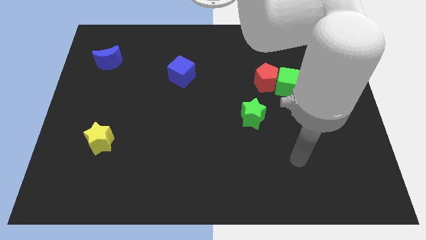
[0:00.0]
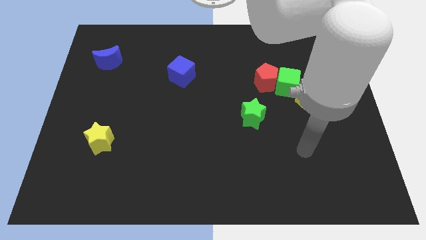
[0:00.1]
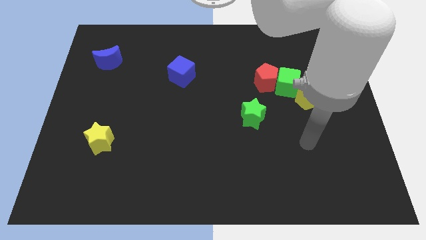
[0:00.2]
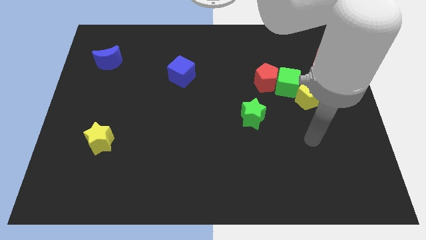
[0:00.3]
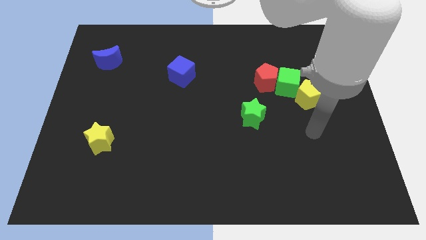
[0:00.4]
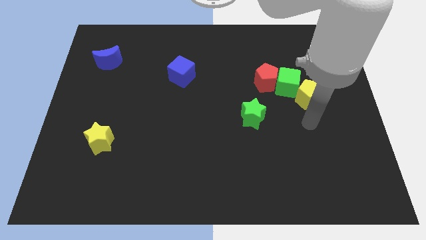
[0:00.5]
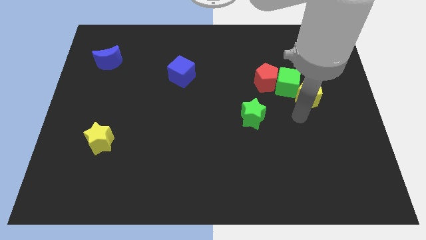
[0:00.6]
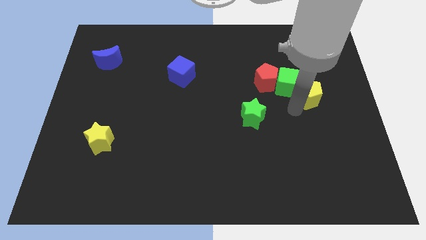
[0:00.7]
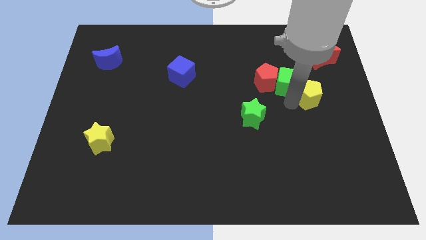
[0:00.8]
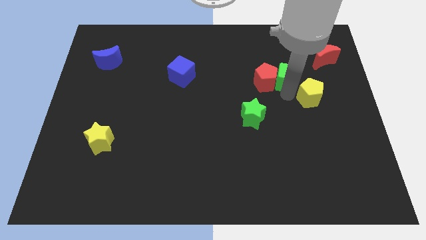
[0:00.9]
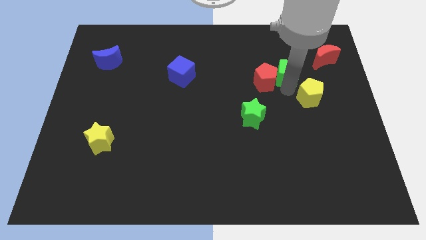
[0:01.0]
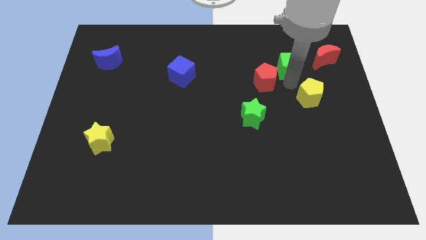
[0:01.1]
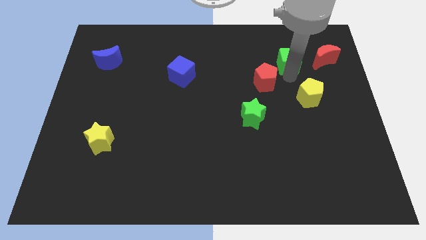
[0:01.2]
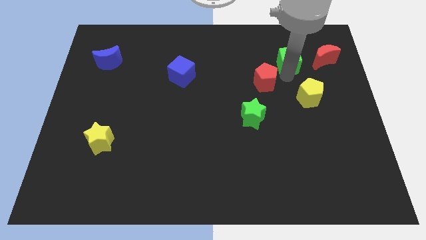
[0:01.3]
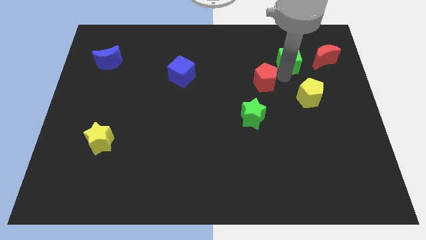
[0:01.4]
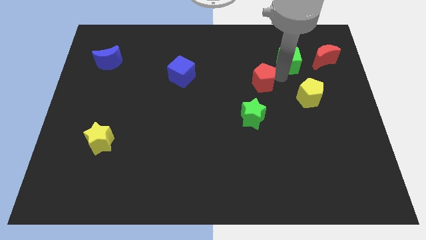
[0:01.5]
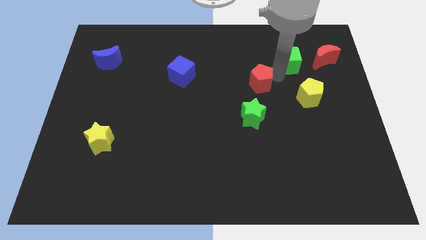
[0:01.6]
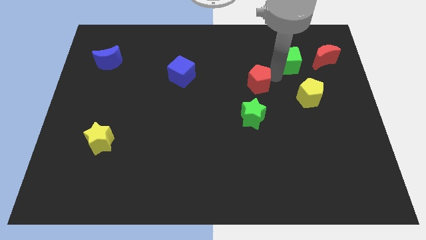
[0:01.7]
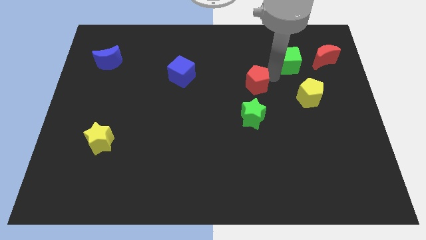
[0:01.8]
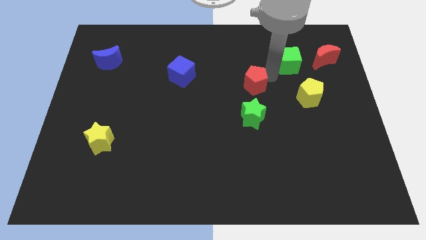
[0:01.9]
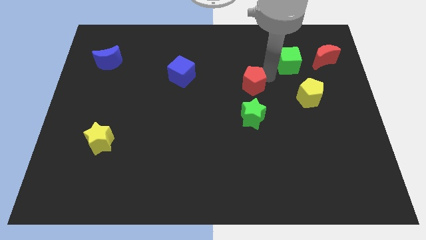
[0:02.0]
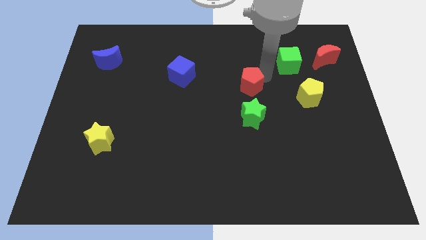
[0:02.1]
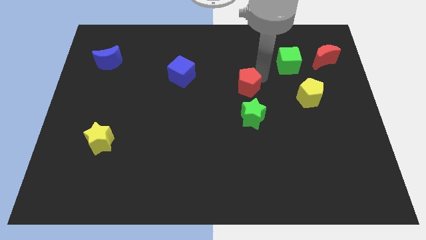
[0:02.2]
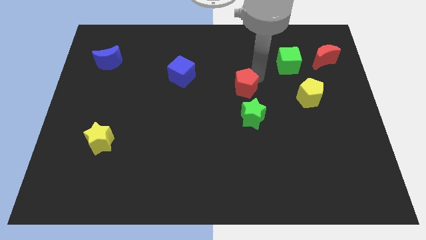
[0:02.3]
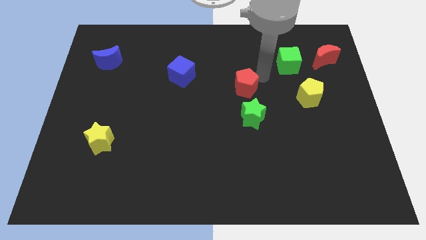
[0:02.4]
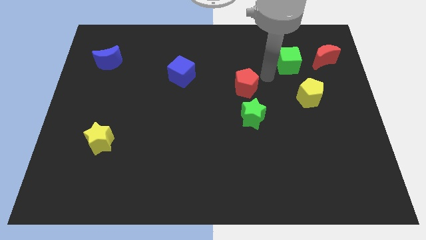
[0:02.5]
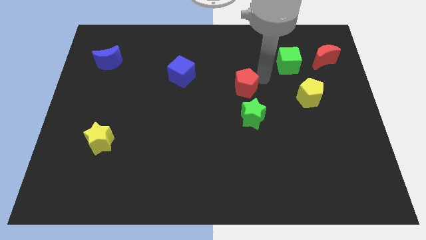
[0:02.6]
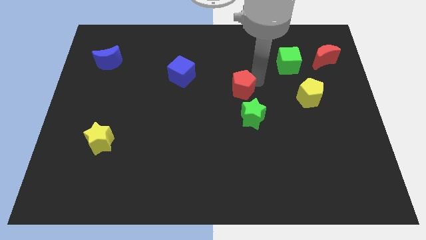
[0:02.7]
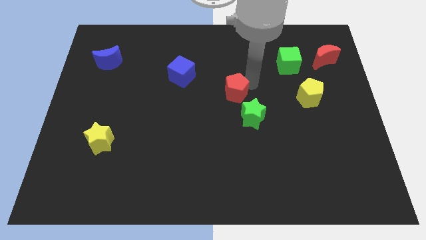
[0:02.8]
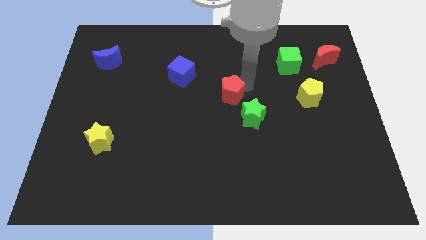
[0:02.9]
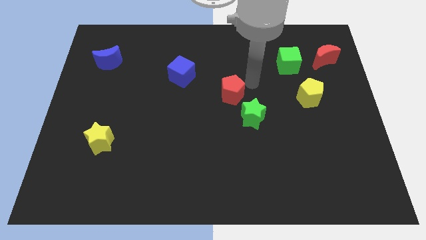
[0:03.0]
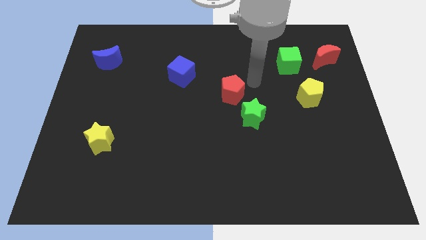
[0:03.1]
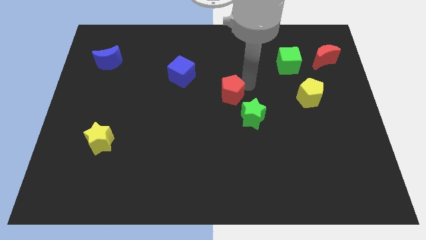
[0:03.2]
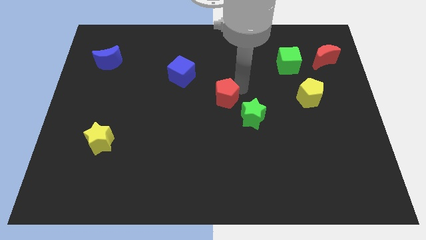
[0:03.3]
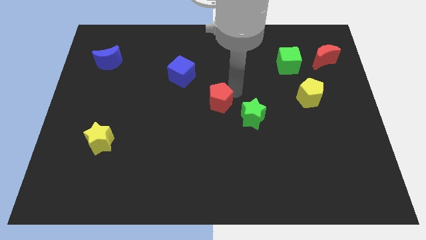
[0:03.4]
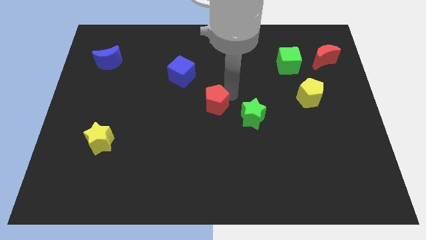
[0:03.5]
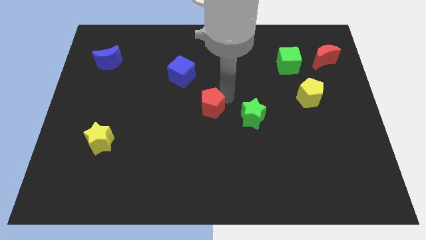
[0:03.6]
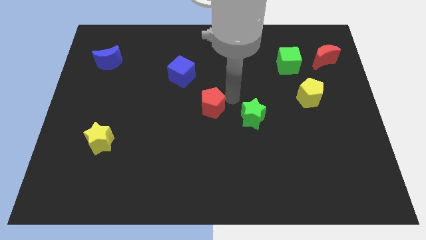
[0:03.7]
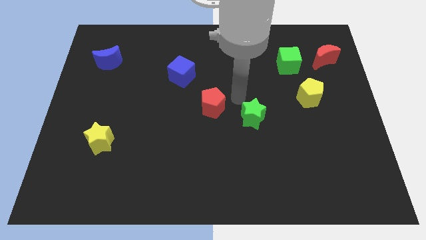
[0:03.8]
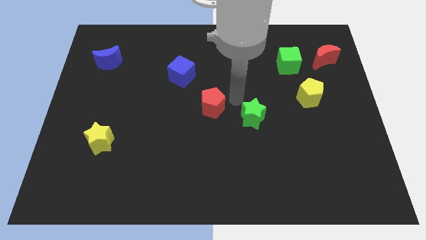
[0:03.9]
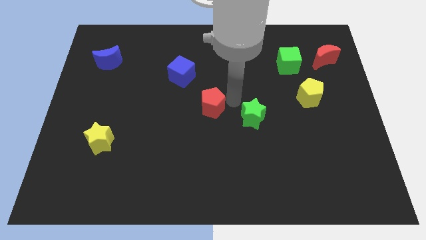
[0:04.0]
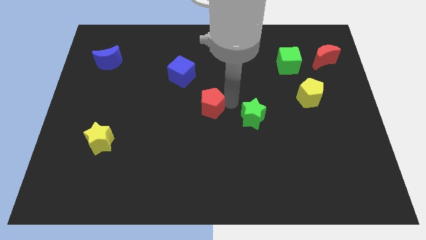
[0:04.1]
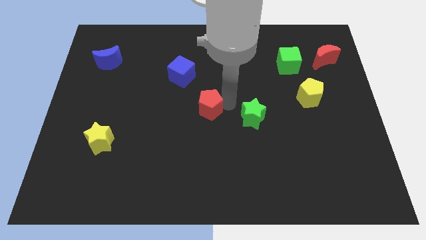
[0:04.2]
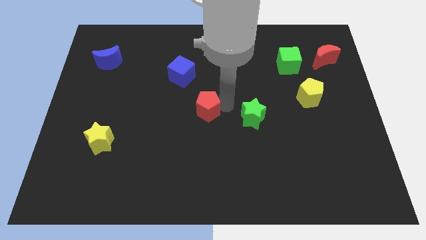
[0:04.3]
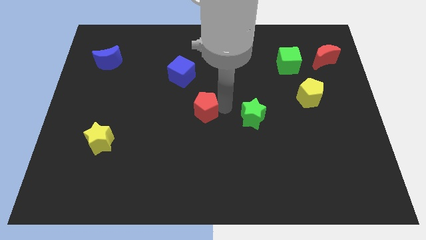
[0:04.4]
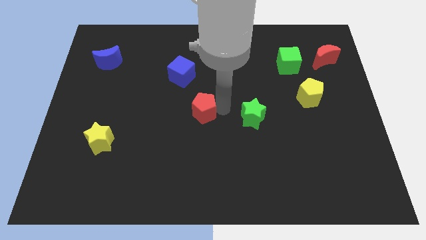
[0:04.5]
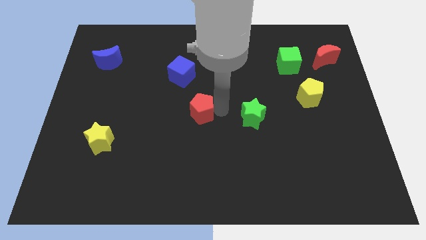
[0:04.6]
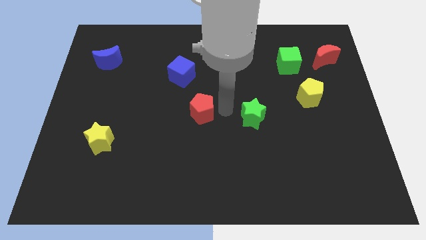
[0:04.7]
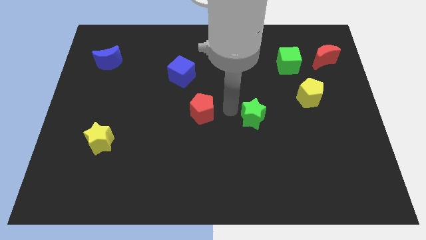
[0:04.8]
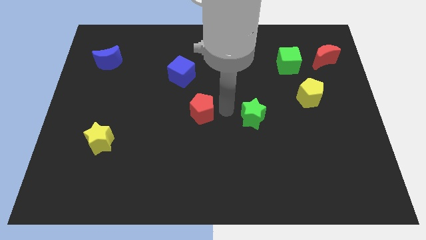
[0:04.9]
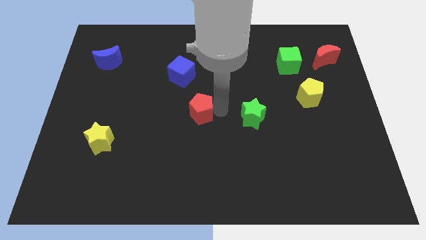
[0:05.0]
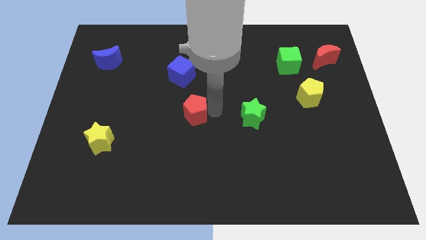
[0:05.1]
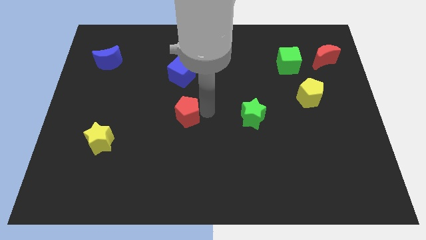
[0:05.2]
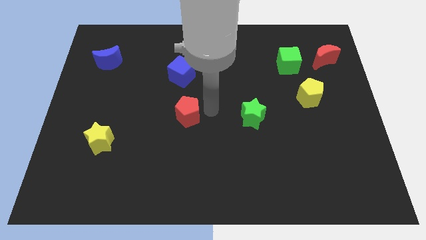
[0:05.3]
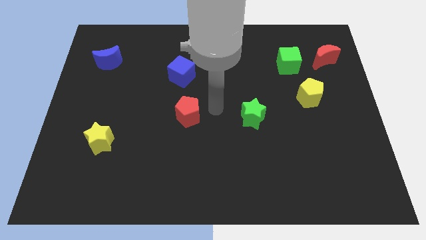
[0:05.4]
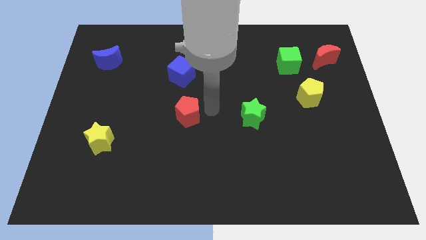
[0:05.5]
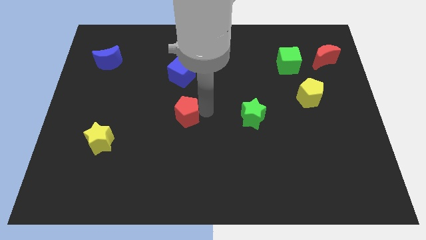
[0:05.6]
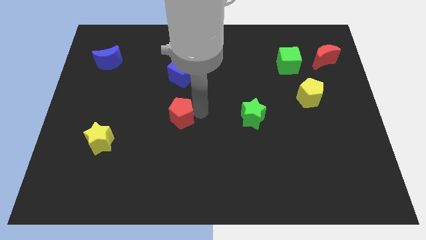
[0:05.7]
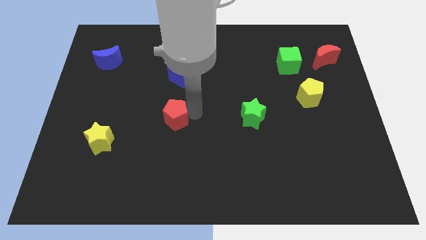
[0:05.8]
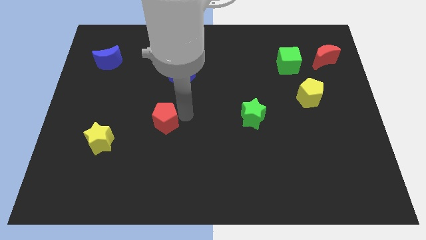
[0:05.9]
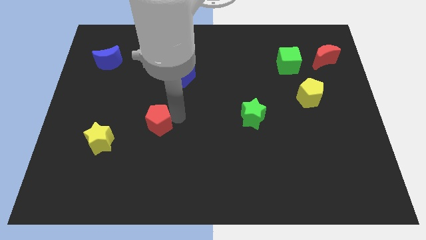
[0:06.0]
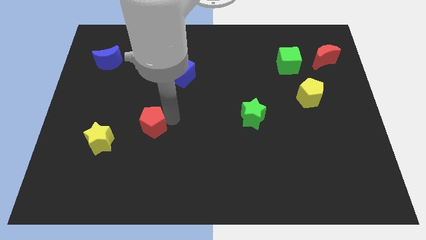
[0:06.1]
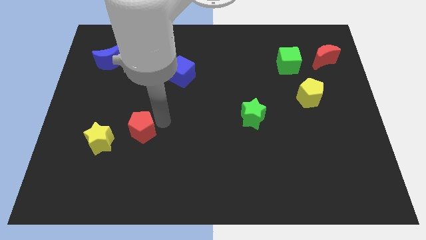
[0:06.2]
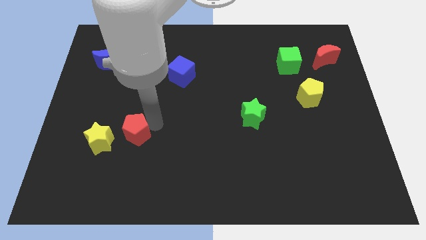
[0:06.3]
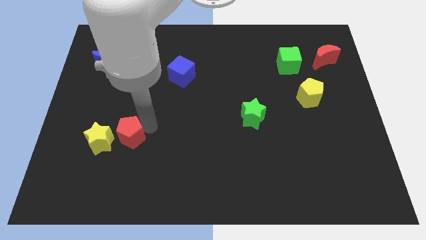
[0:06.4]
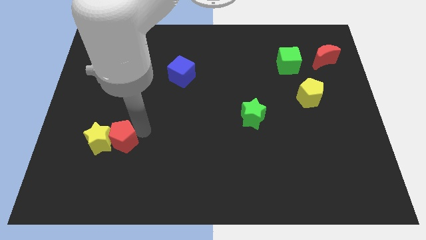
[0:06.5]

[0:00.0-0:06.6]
put the red pentagon next to the yellow star
